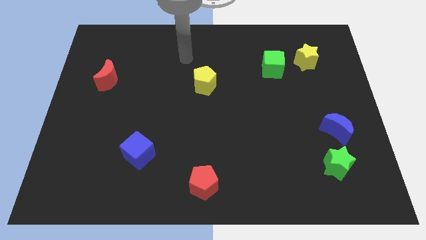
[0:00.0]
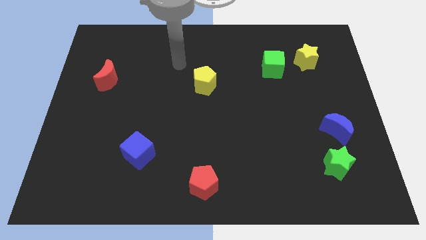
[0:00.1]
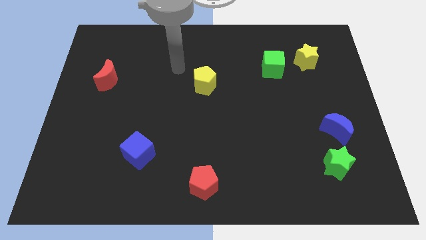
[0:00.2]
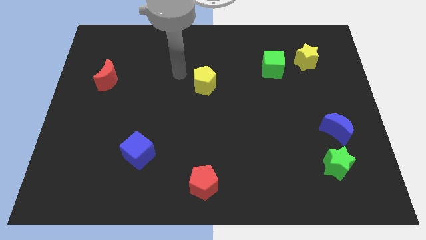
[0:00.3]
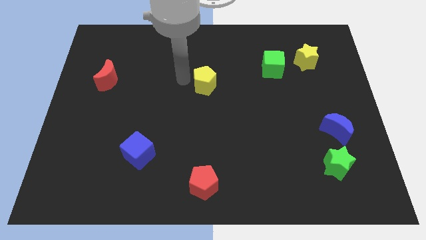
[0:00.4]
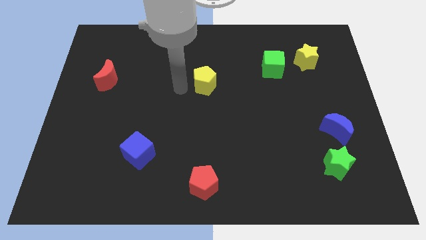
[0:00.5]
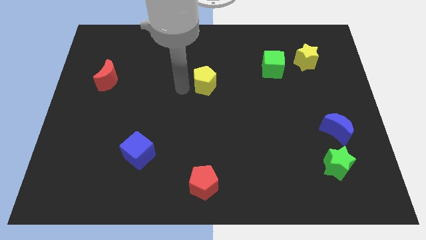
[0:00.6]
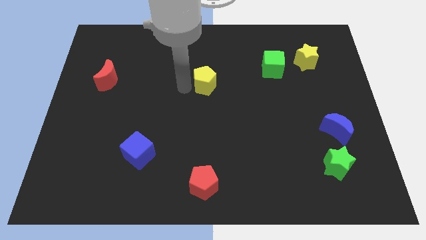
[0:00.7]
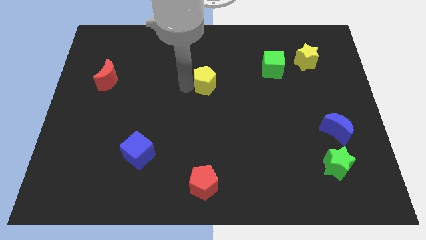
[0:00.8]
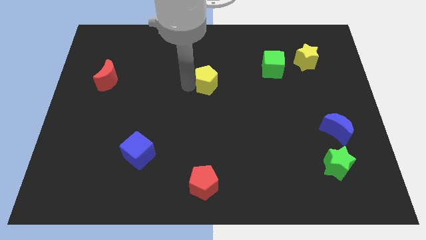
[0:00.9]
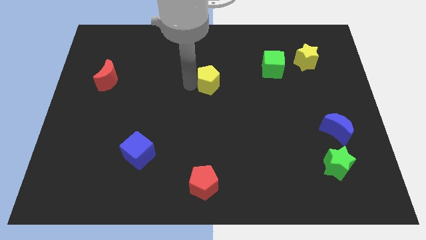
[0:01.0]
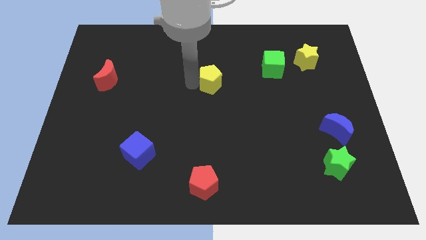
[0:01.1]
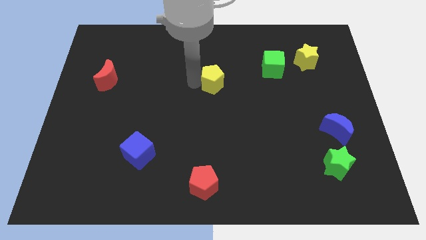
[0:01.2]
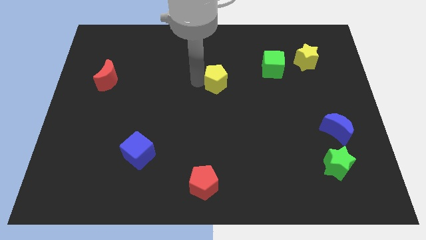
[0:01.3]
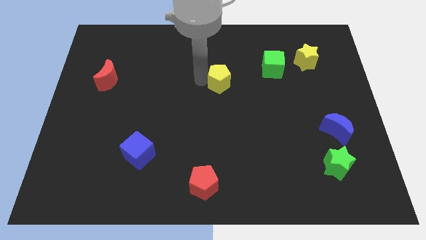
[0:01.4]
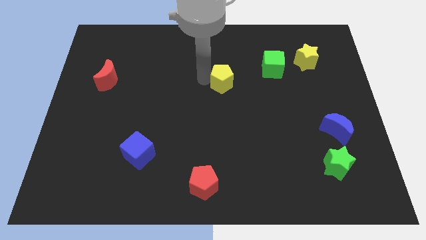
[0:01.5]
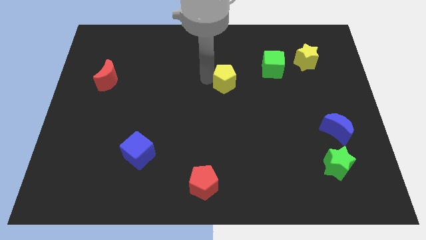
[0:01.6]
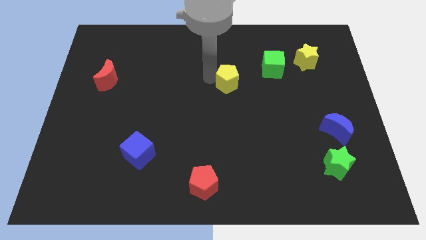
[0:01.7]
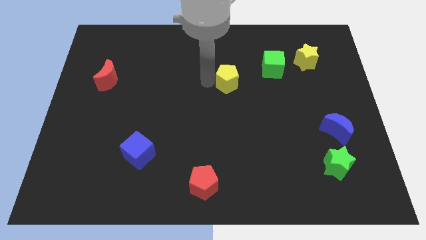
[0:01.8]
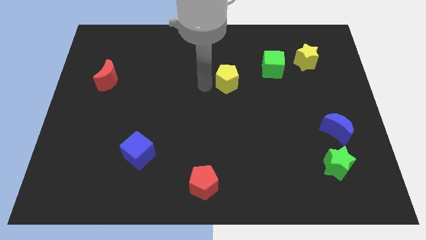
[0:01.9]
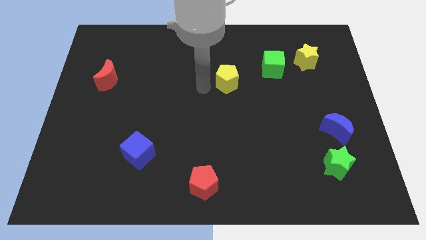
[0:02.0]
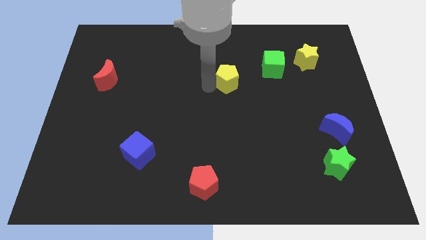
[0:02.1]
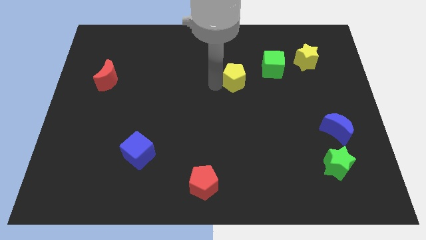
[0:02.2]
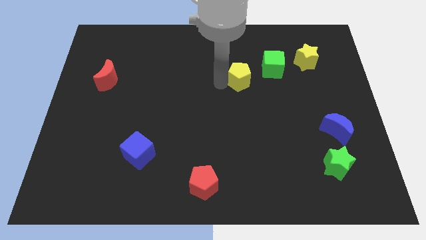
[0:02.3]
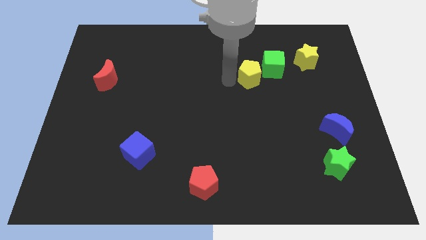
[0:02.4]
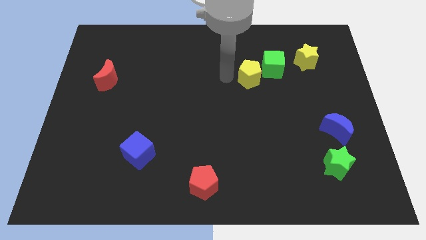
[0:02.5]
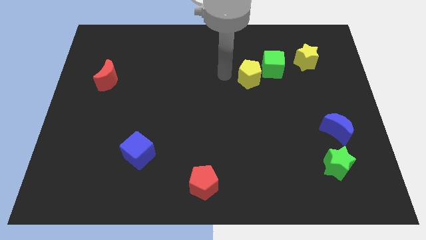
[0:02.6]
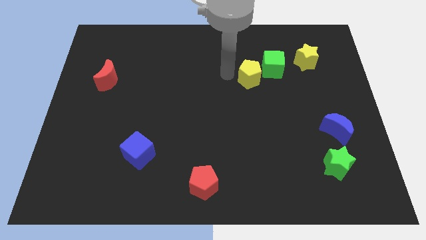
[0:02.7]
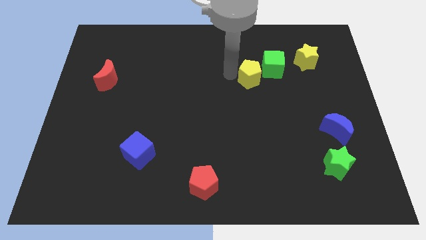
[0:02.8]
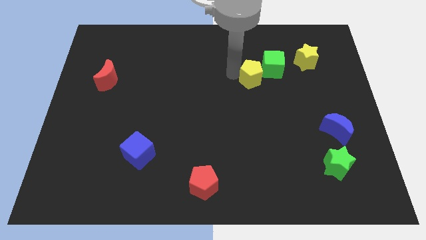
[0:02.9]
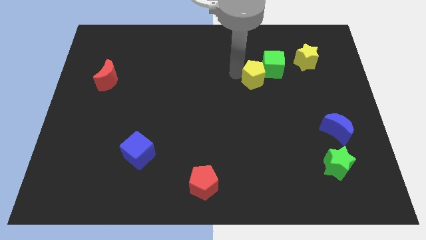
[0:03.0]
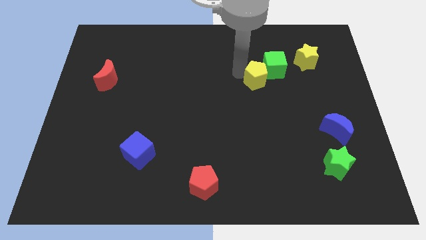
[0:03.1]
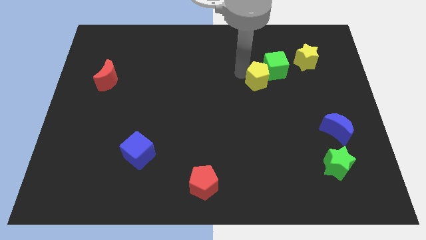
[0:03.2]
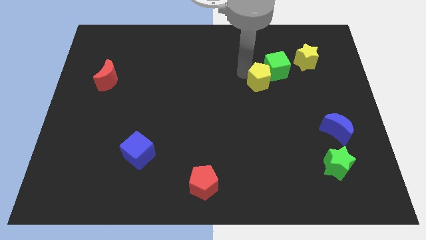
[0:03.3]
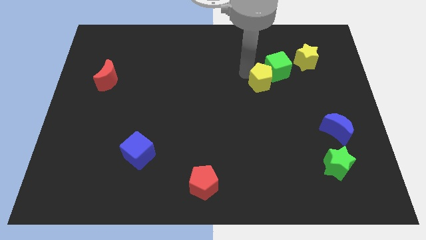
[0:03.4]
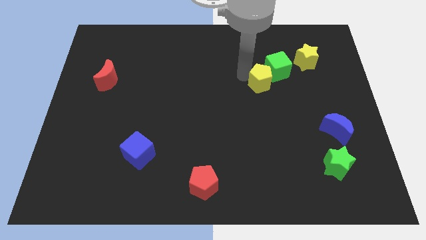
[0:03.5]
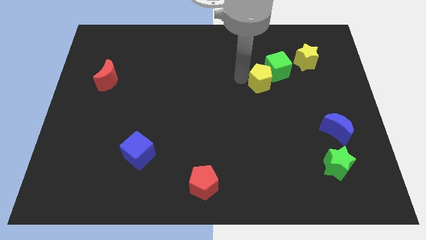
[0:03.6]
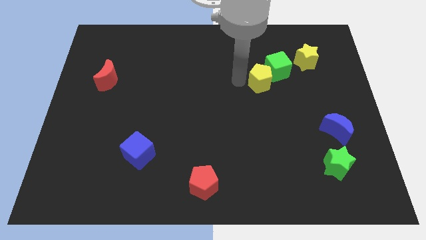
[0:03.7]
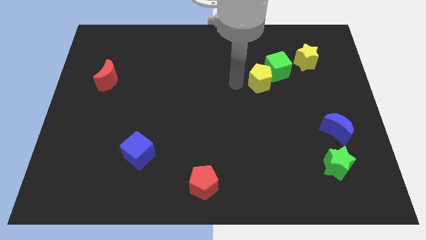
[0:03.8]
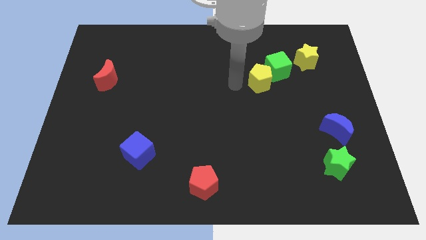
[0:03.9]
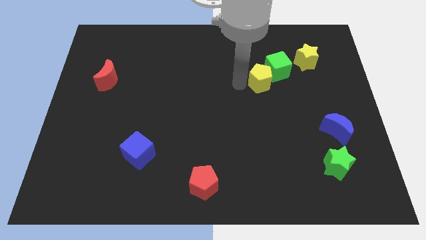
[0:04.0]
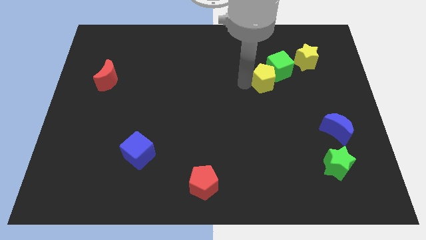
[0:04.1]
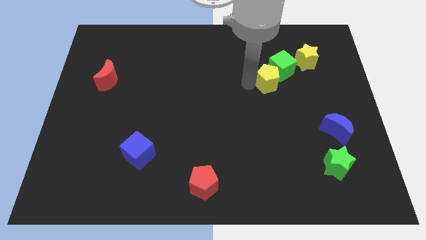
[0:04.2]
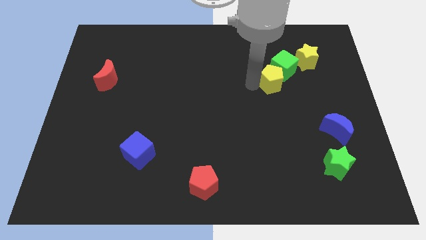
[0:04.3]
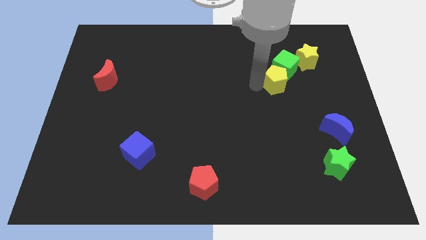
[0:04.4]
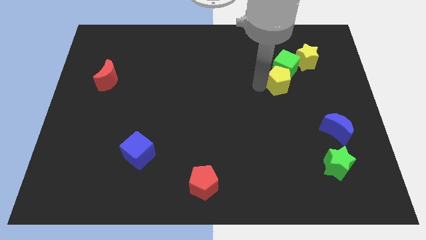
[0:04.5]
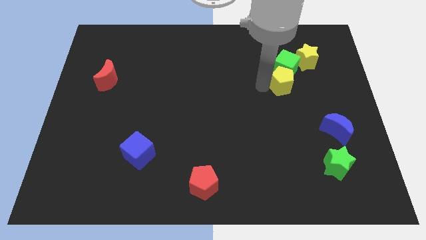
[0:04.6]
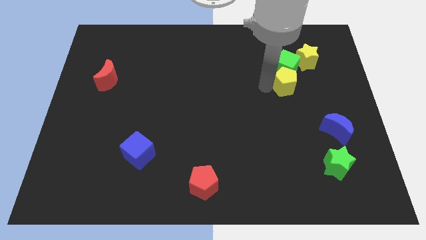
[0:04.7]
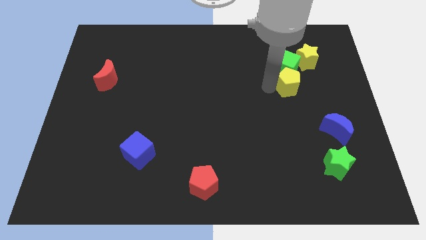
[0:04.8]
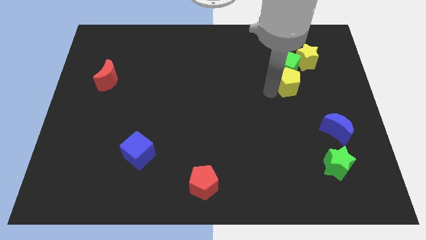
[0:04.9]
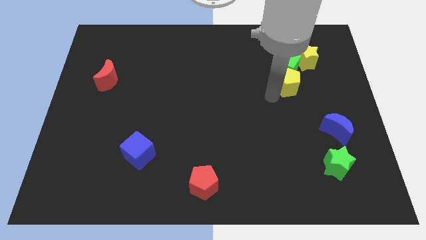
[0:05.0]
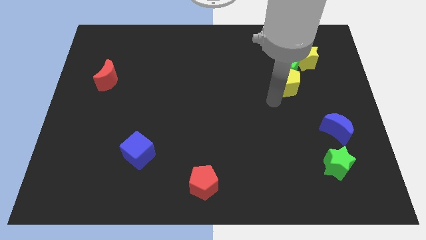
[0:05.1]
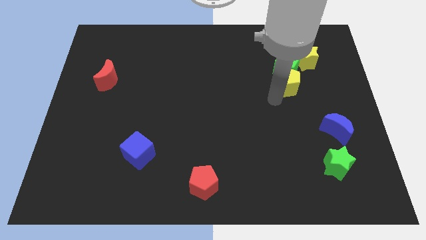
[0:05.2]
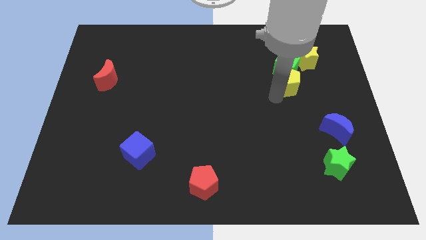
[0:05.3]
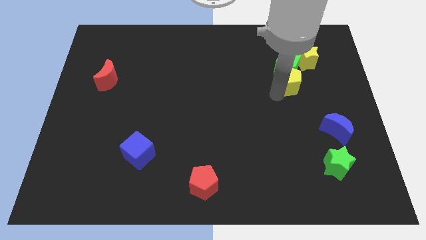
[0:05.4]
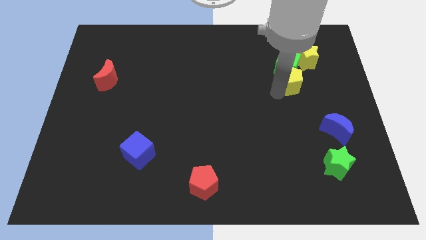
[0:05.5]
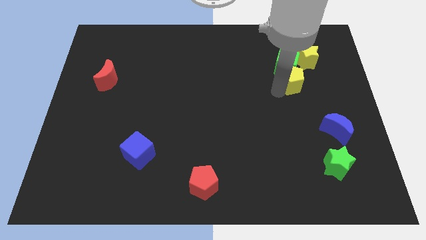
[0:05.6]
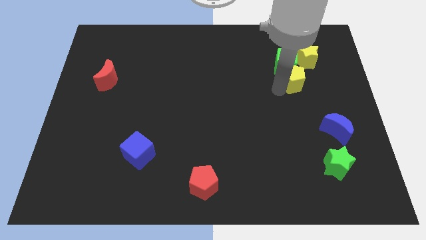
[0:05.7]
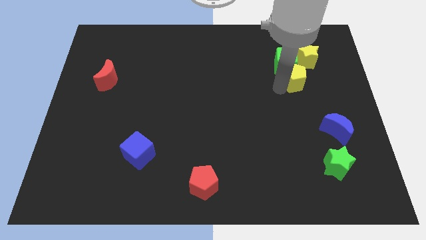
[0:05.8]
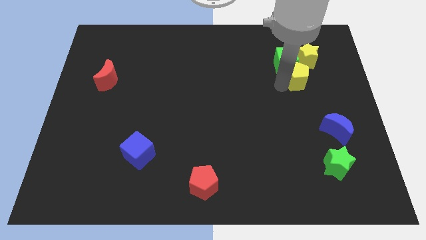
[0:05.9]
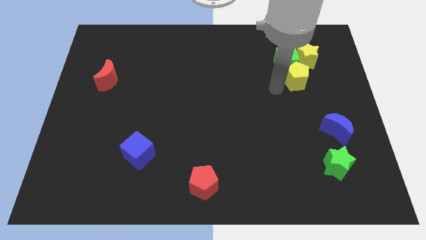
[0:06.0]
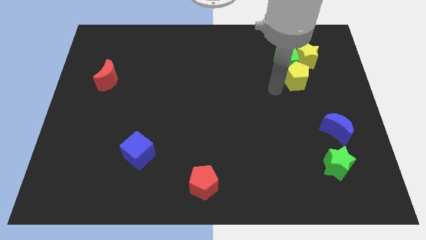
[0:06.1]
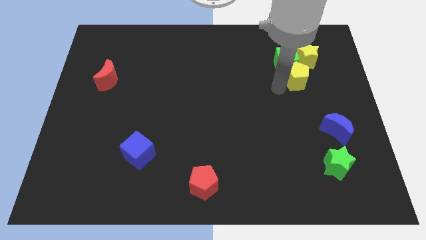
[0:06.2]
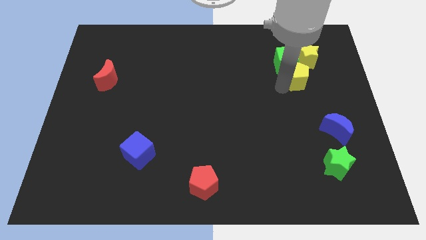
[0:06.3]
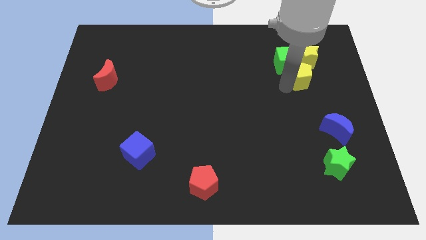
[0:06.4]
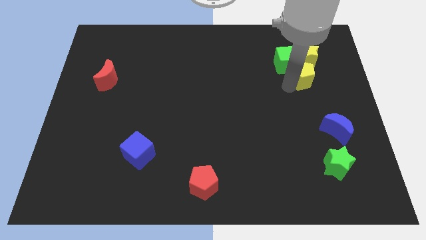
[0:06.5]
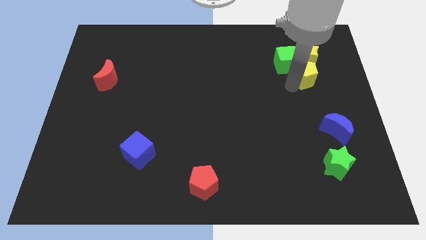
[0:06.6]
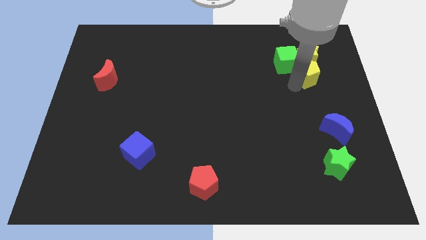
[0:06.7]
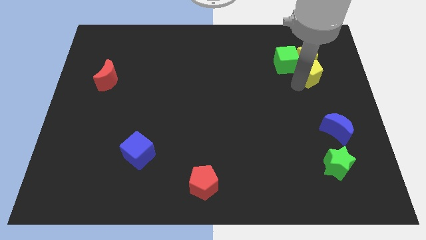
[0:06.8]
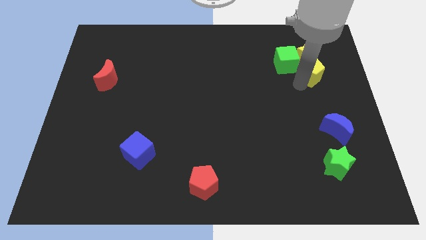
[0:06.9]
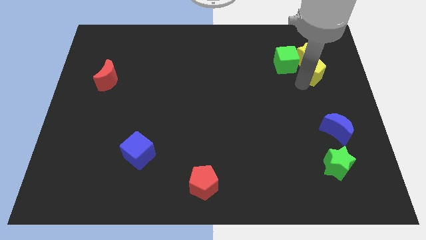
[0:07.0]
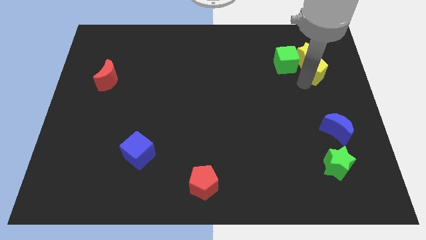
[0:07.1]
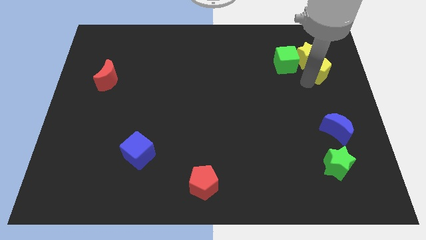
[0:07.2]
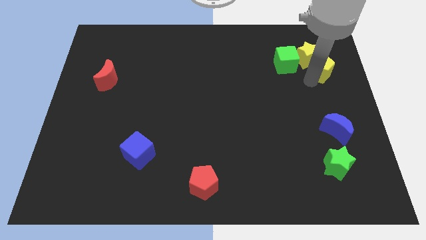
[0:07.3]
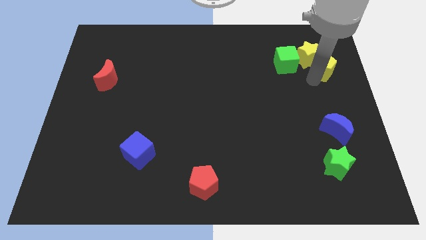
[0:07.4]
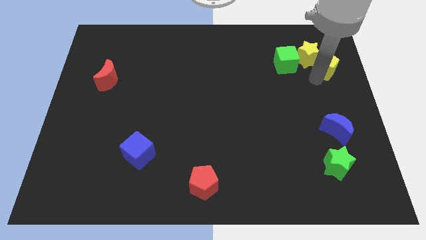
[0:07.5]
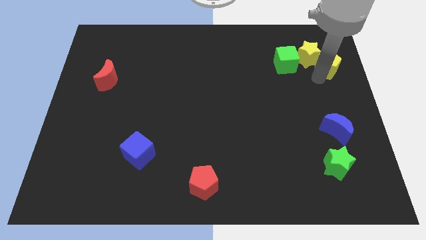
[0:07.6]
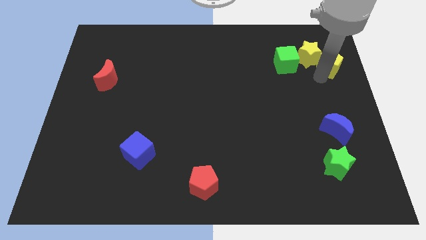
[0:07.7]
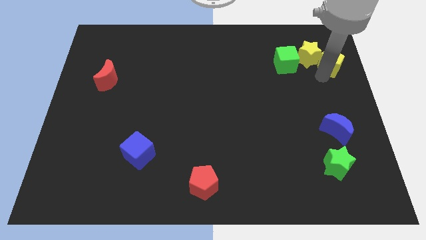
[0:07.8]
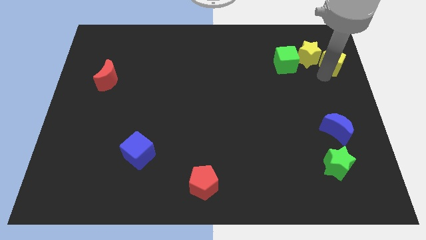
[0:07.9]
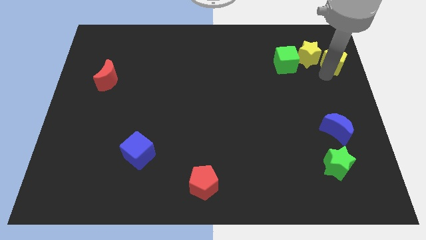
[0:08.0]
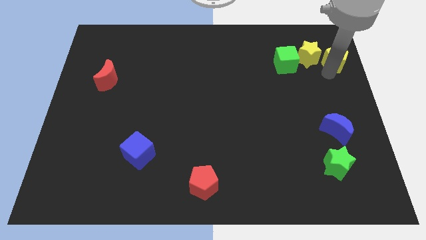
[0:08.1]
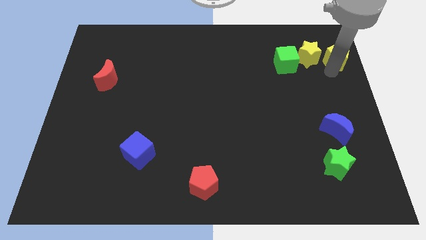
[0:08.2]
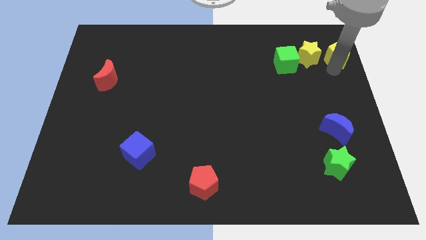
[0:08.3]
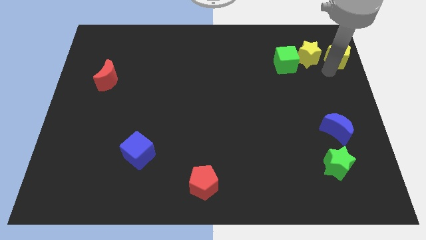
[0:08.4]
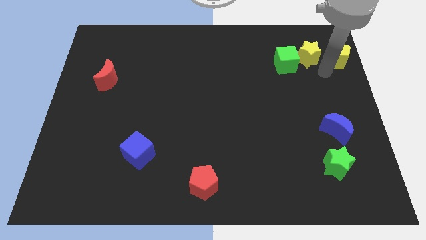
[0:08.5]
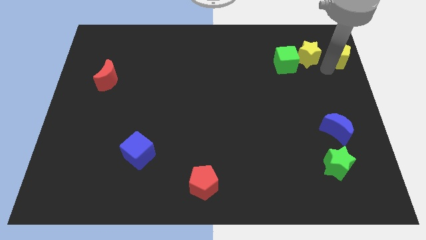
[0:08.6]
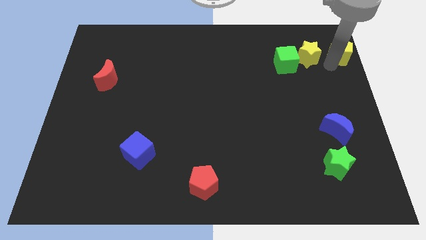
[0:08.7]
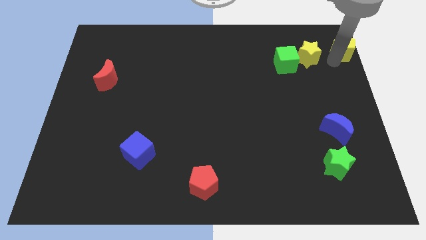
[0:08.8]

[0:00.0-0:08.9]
move the yellow pentagon to the top right of the board
